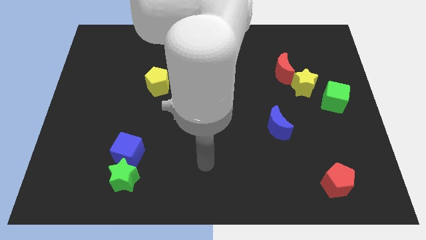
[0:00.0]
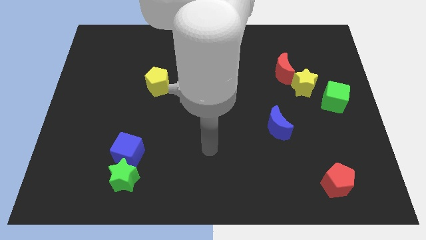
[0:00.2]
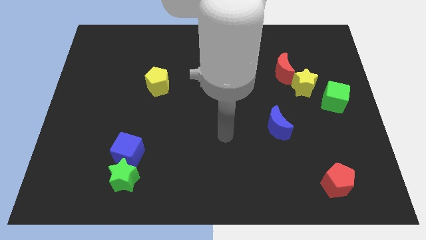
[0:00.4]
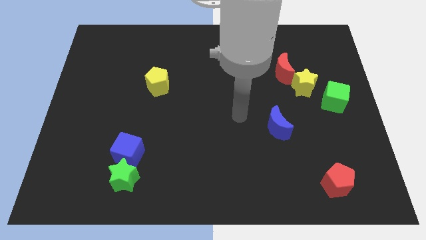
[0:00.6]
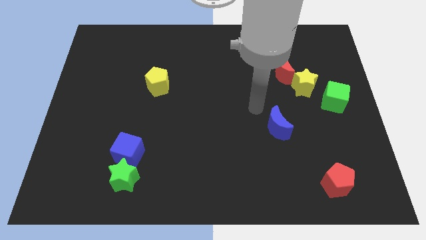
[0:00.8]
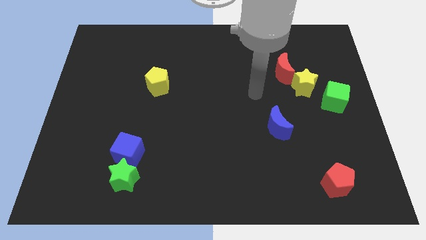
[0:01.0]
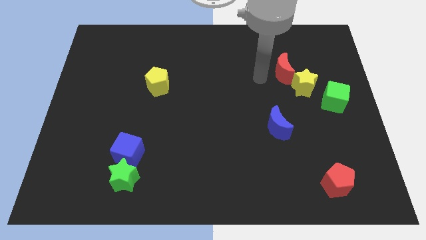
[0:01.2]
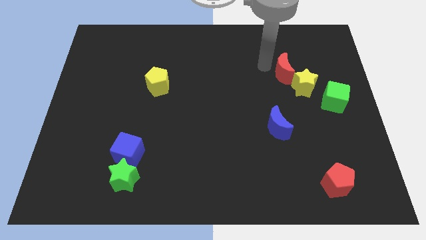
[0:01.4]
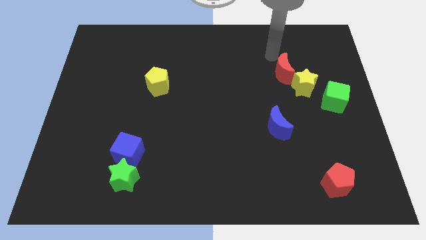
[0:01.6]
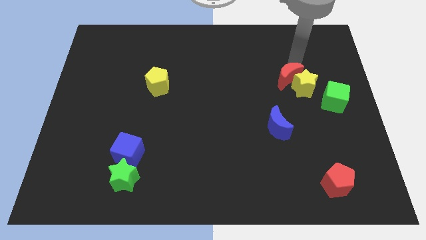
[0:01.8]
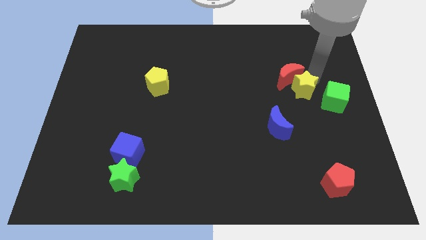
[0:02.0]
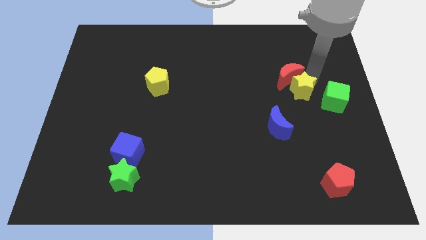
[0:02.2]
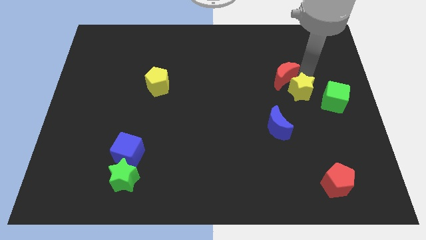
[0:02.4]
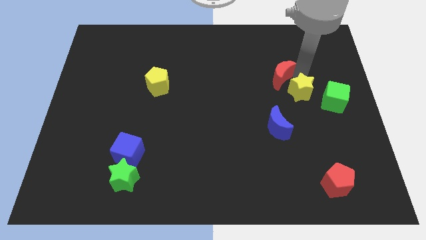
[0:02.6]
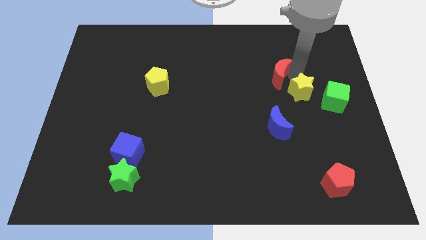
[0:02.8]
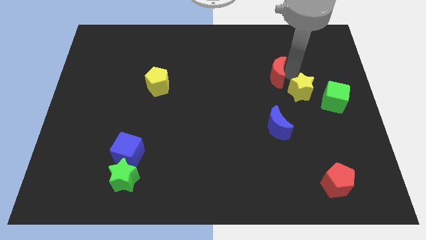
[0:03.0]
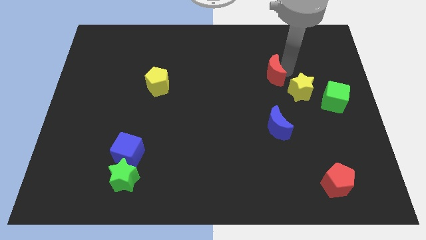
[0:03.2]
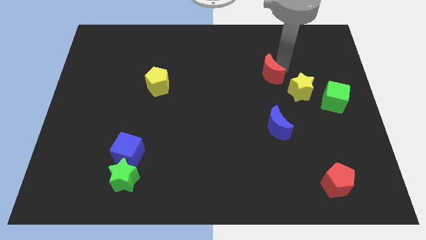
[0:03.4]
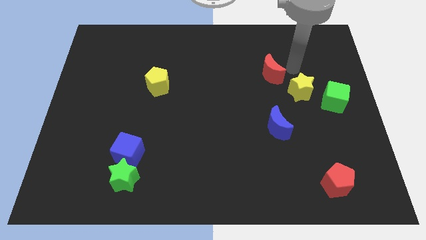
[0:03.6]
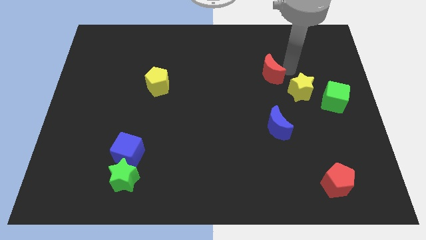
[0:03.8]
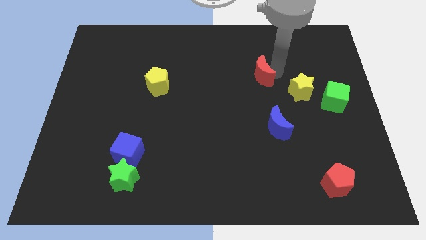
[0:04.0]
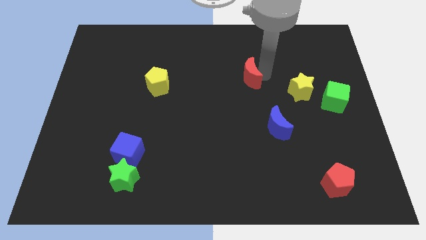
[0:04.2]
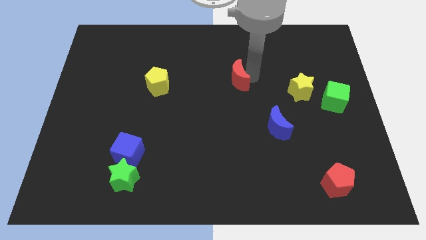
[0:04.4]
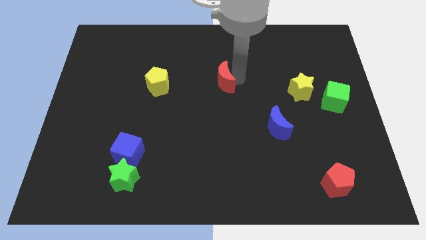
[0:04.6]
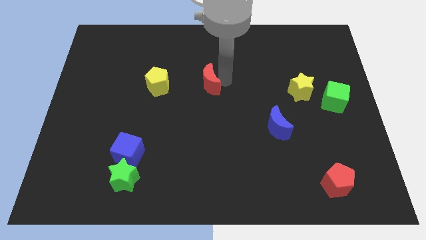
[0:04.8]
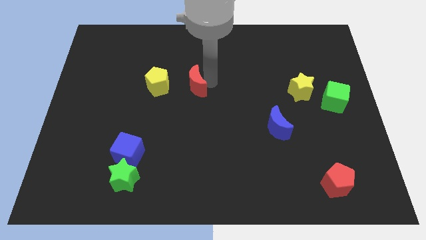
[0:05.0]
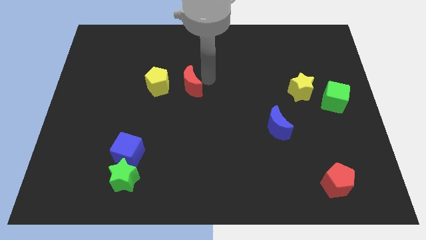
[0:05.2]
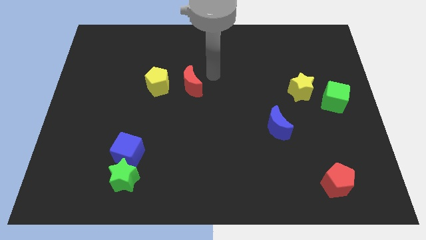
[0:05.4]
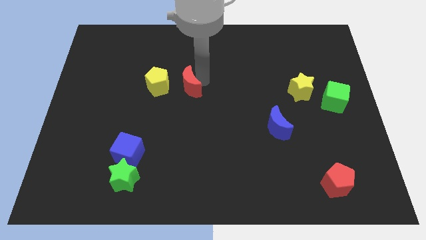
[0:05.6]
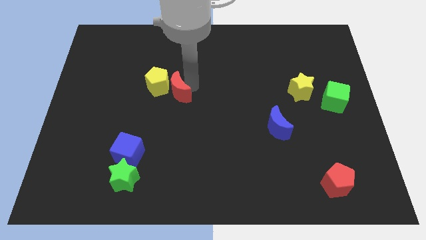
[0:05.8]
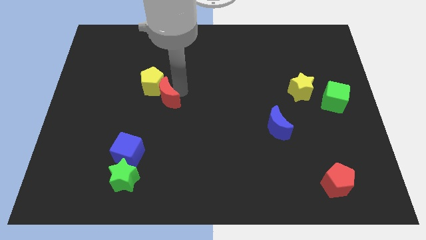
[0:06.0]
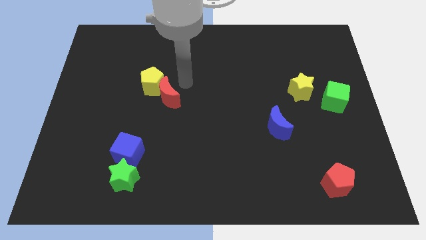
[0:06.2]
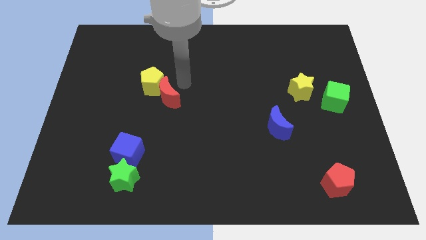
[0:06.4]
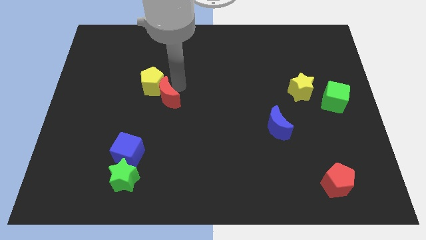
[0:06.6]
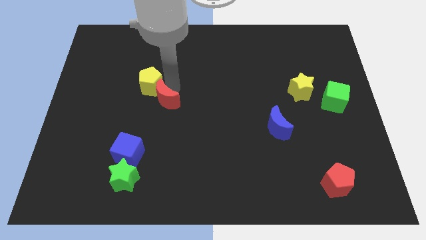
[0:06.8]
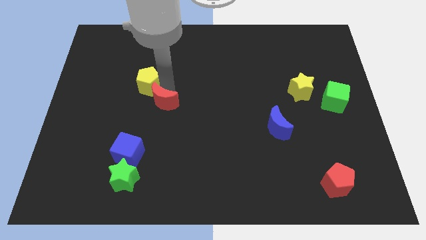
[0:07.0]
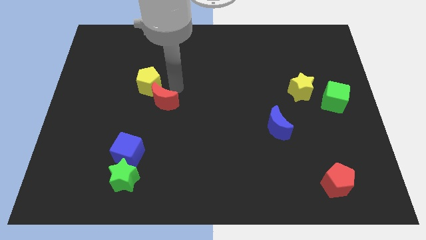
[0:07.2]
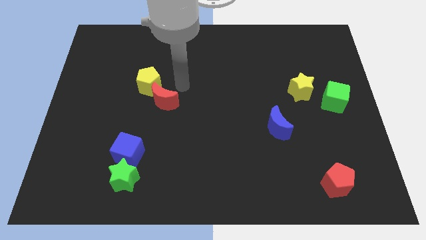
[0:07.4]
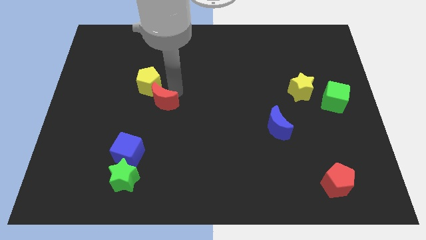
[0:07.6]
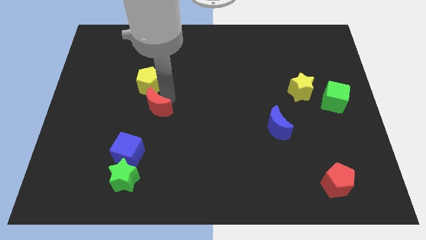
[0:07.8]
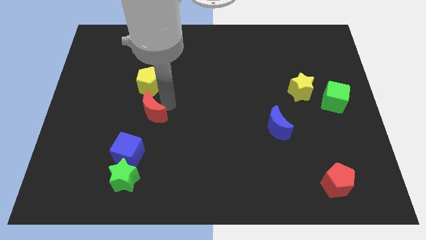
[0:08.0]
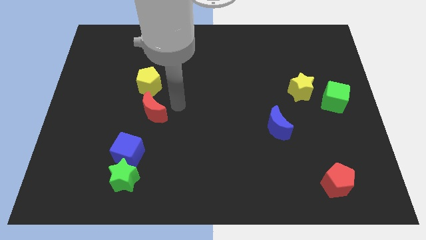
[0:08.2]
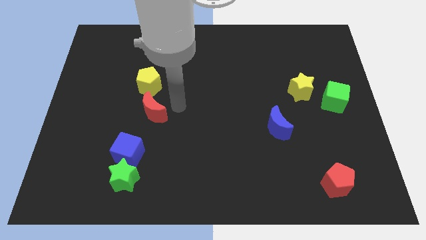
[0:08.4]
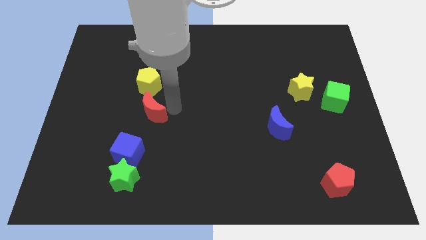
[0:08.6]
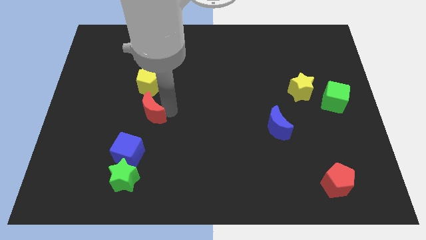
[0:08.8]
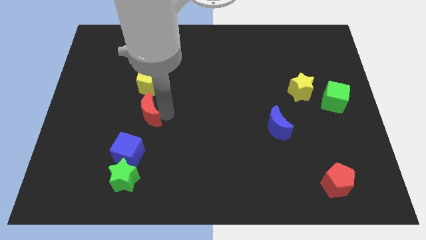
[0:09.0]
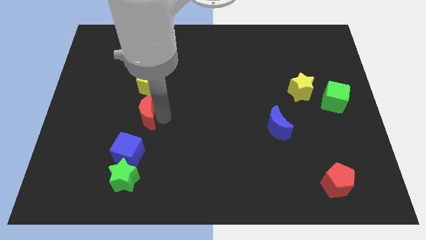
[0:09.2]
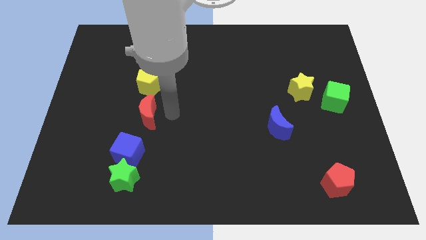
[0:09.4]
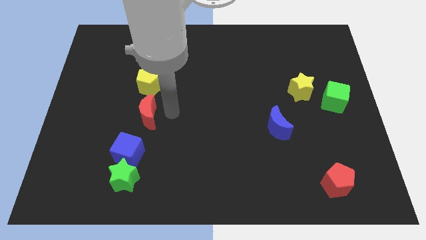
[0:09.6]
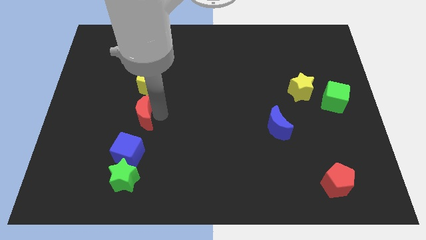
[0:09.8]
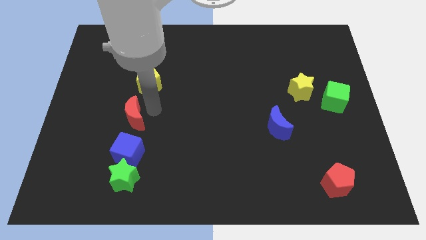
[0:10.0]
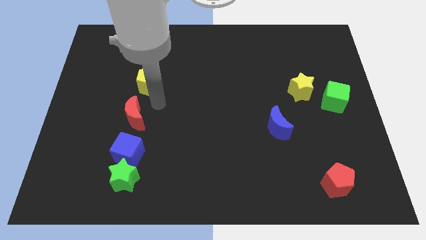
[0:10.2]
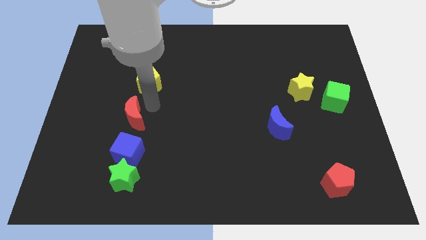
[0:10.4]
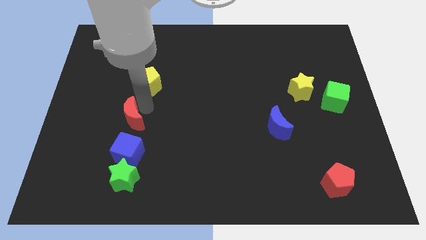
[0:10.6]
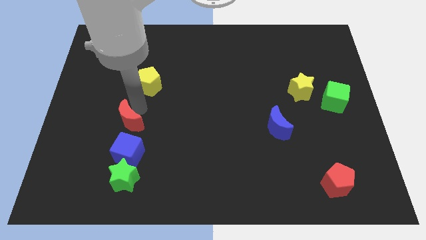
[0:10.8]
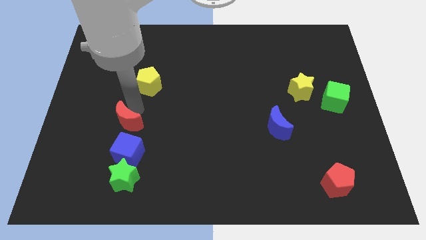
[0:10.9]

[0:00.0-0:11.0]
push the red moon diagonally up and to the left of the blue cube

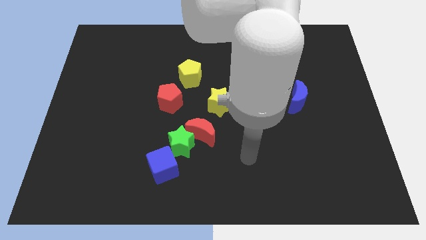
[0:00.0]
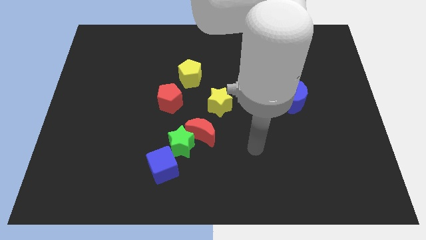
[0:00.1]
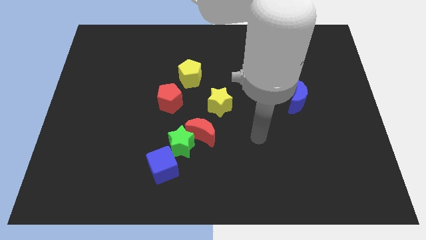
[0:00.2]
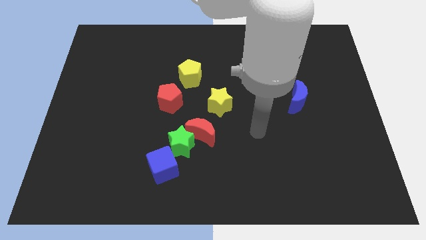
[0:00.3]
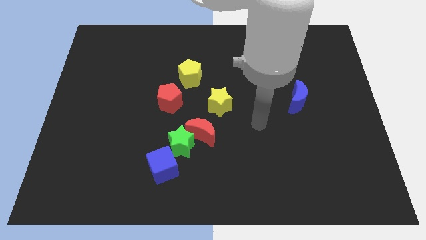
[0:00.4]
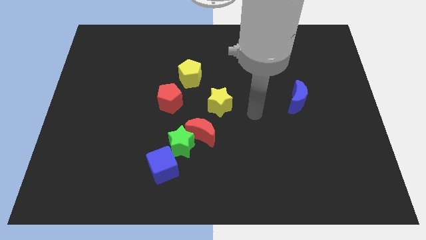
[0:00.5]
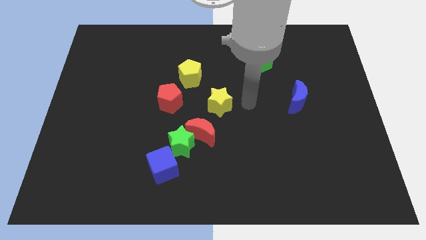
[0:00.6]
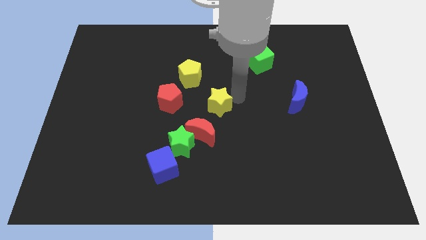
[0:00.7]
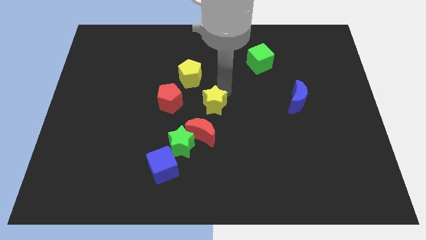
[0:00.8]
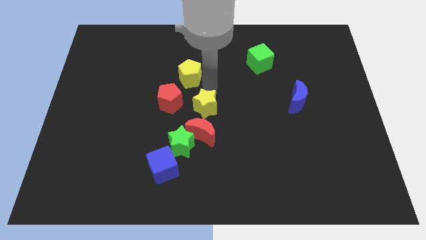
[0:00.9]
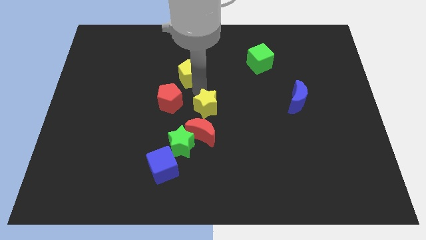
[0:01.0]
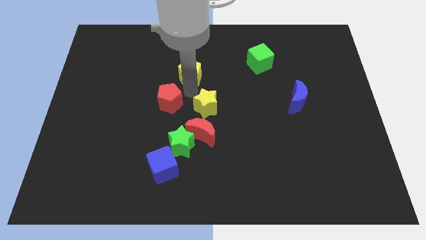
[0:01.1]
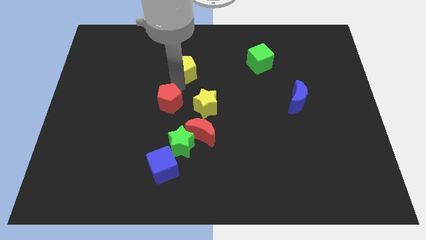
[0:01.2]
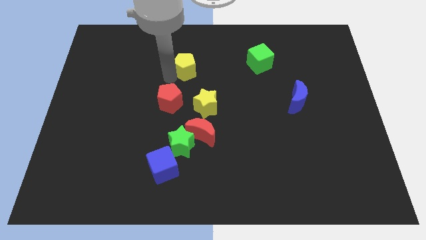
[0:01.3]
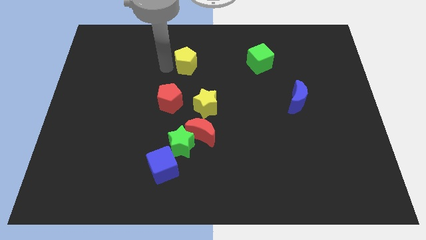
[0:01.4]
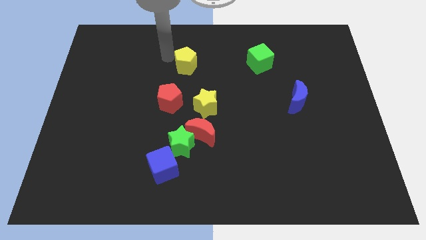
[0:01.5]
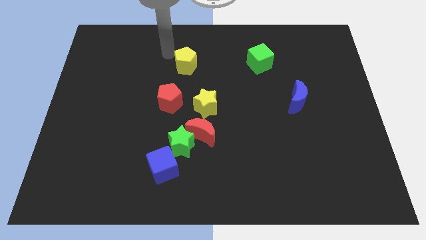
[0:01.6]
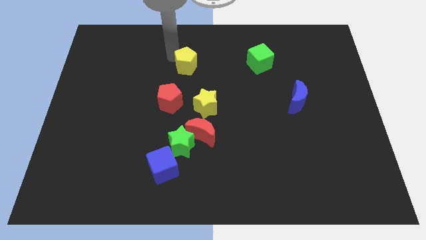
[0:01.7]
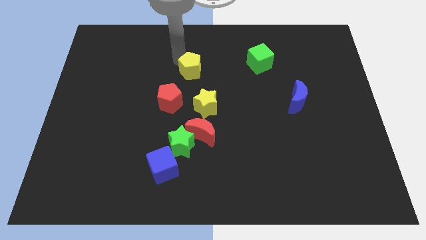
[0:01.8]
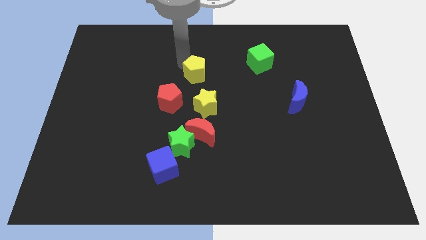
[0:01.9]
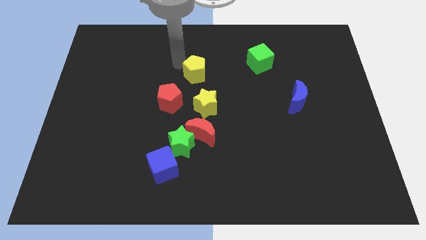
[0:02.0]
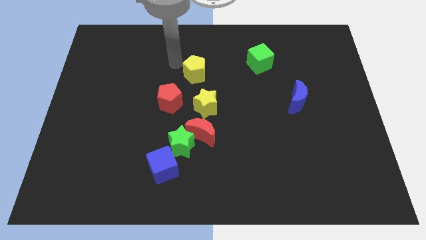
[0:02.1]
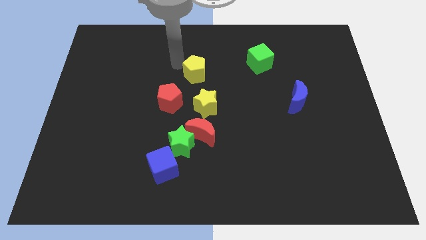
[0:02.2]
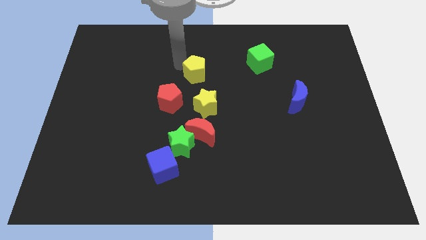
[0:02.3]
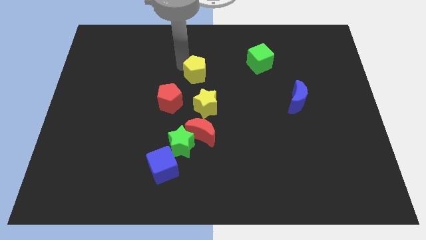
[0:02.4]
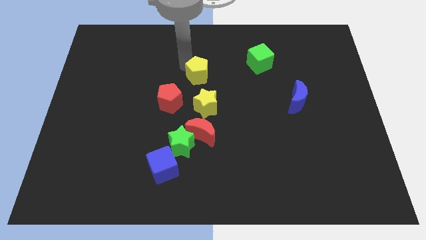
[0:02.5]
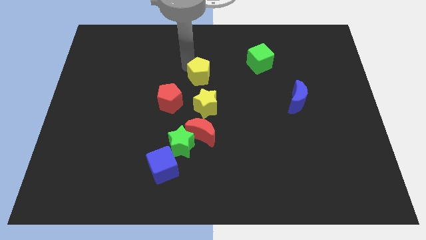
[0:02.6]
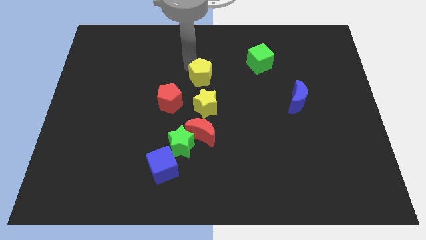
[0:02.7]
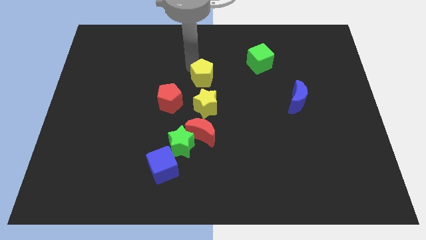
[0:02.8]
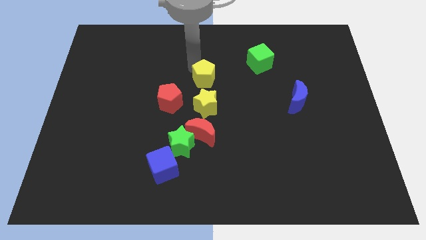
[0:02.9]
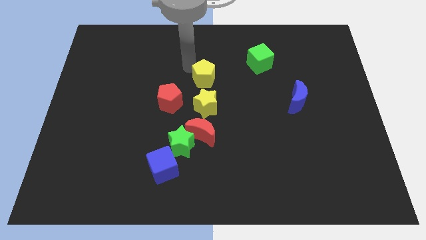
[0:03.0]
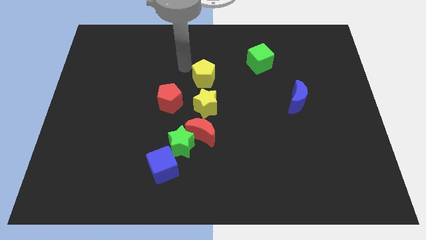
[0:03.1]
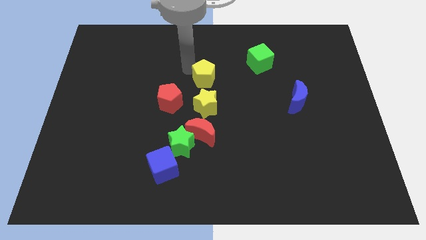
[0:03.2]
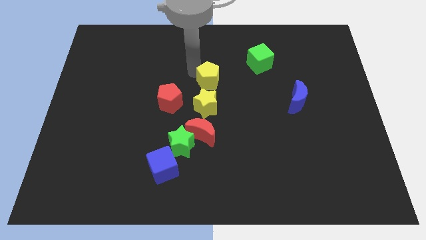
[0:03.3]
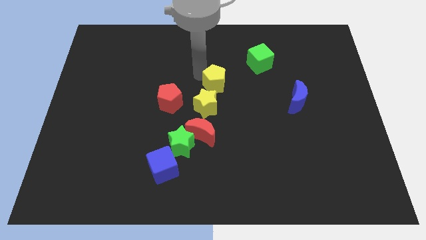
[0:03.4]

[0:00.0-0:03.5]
slide the yellow pentagon diagonally up and to the right of the yellow star
